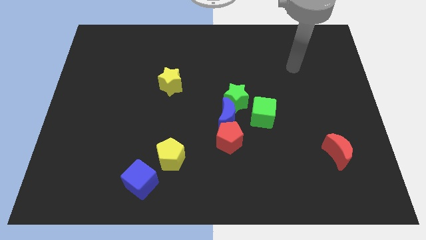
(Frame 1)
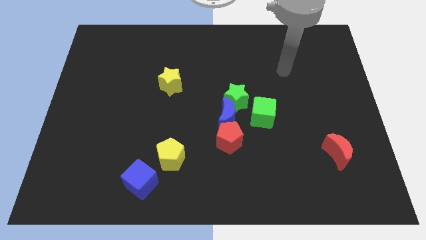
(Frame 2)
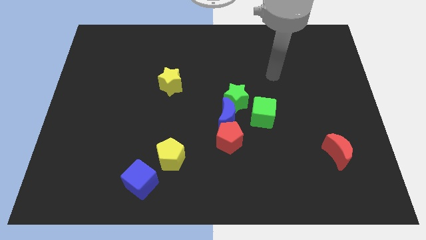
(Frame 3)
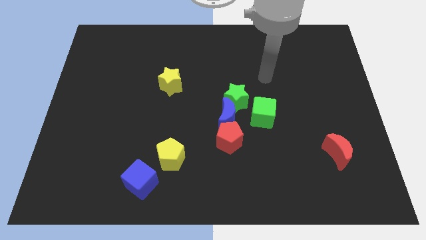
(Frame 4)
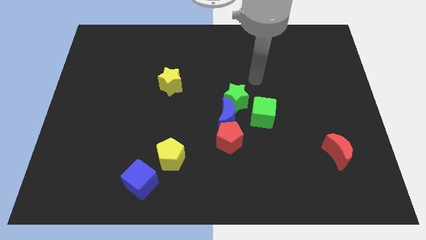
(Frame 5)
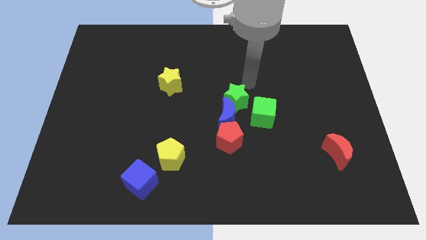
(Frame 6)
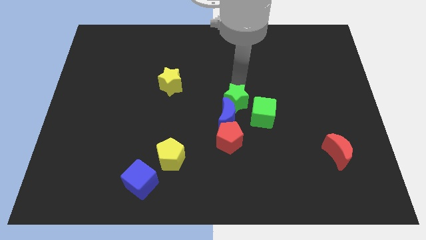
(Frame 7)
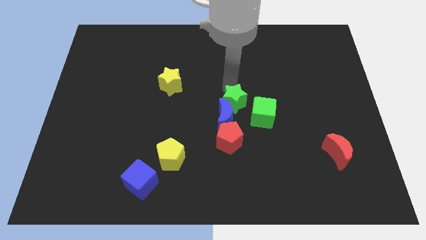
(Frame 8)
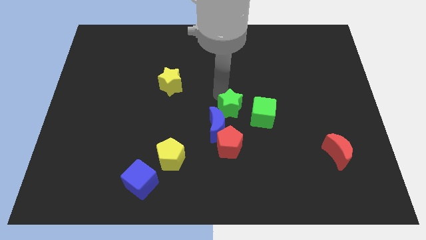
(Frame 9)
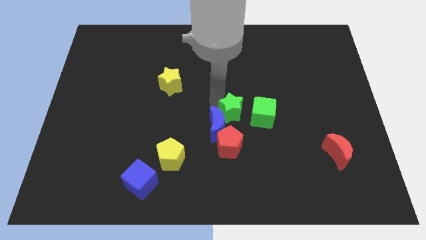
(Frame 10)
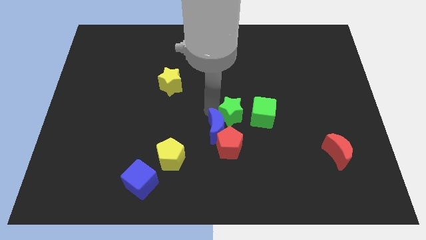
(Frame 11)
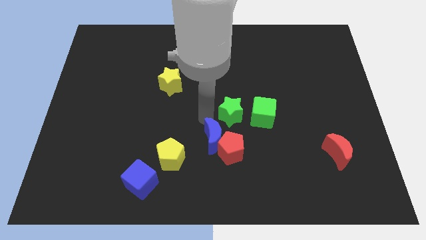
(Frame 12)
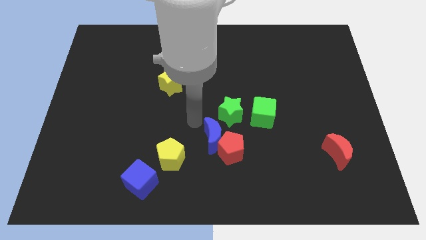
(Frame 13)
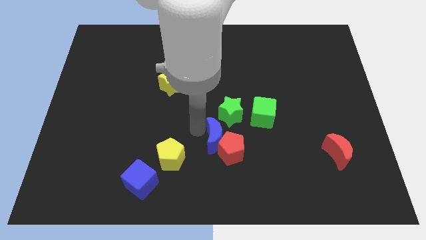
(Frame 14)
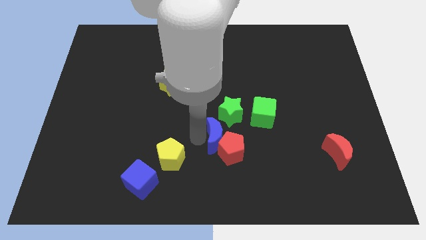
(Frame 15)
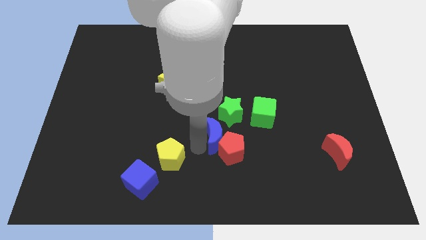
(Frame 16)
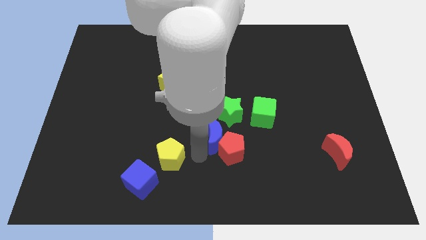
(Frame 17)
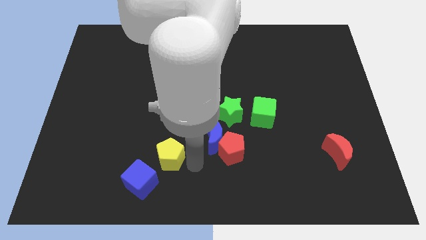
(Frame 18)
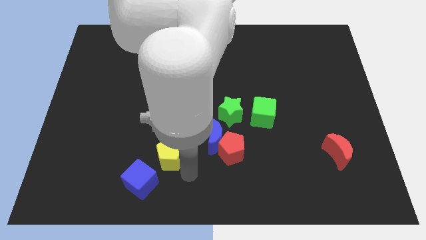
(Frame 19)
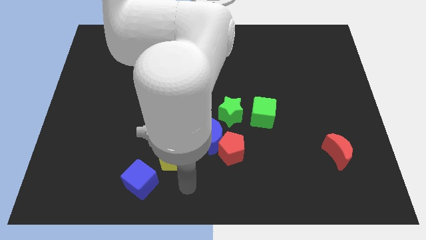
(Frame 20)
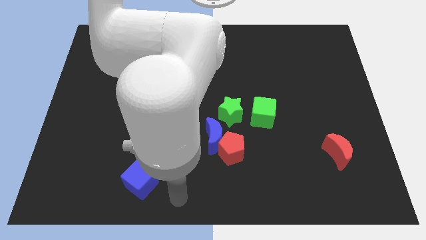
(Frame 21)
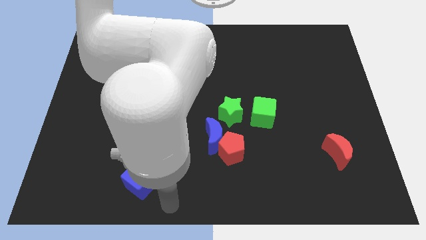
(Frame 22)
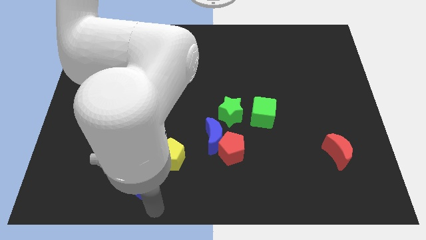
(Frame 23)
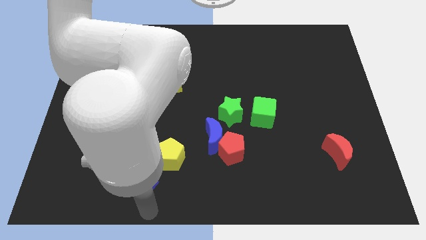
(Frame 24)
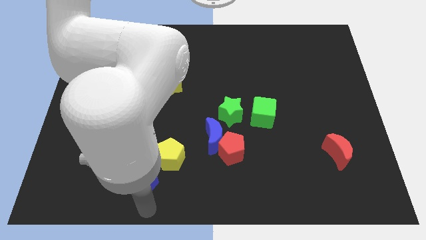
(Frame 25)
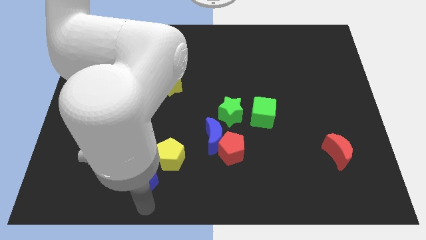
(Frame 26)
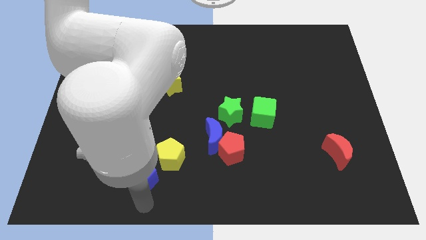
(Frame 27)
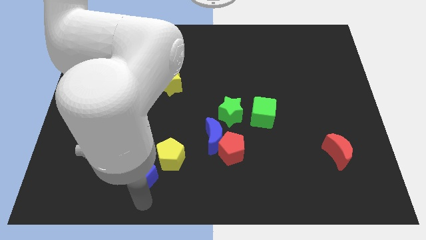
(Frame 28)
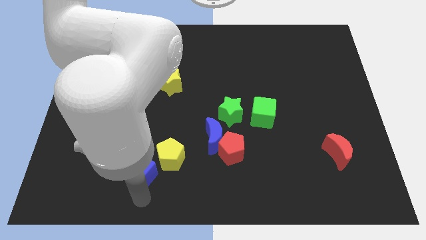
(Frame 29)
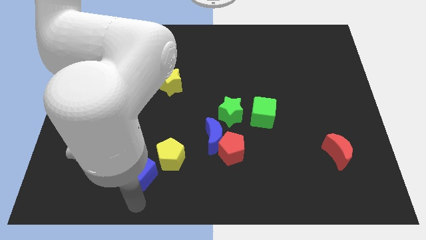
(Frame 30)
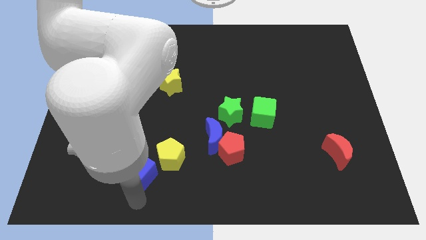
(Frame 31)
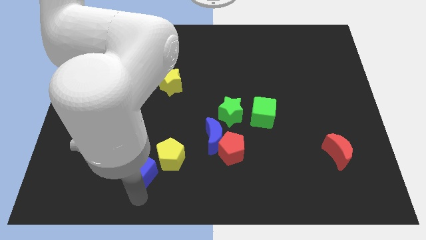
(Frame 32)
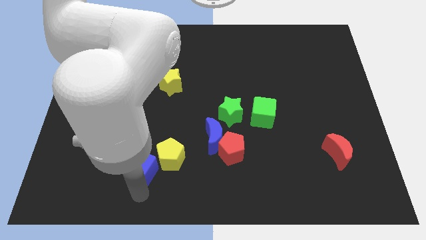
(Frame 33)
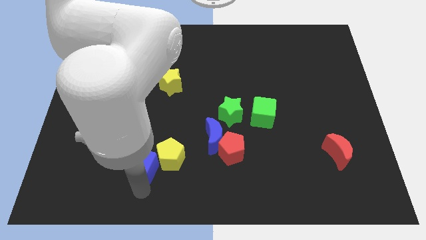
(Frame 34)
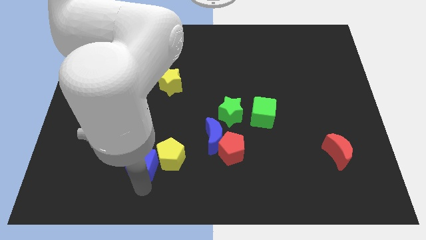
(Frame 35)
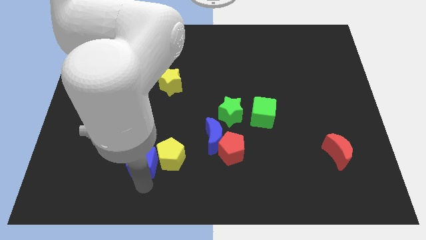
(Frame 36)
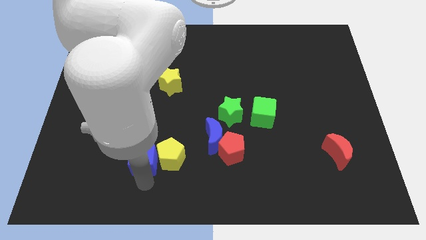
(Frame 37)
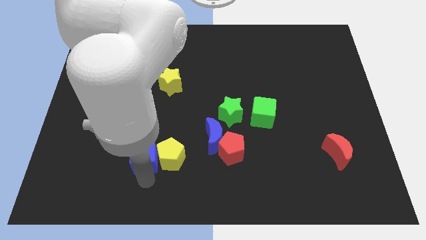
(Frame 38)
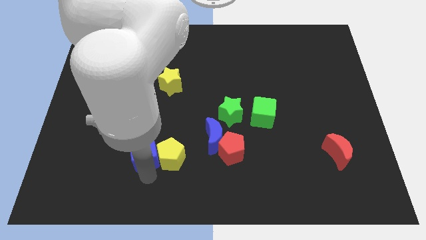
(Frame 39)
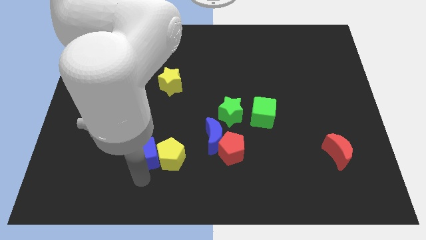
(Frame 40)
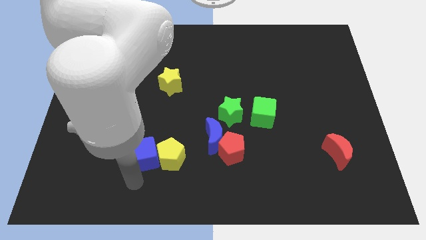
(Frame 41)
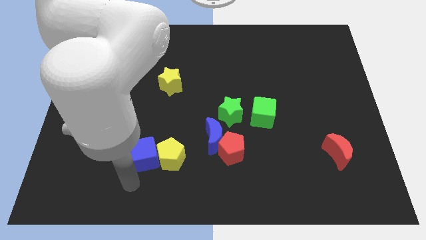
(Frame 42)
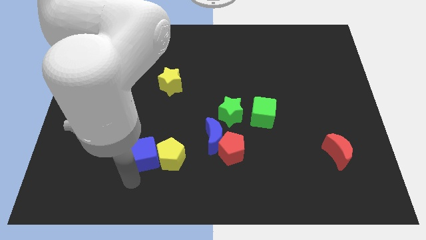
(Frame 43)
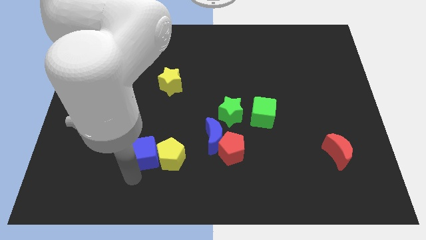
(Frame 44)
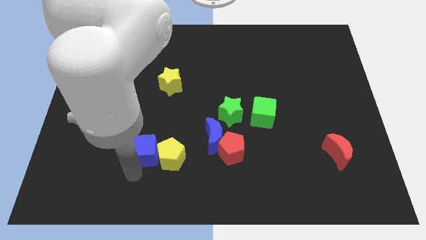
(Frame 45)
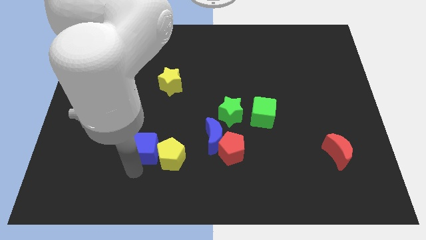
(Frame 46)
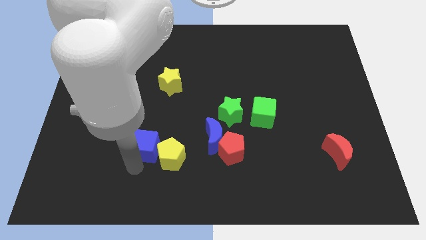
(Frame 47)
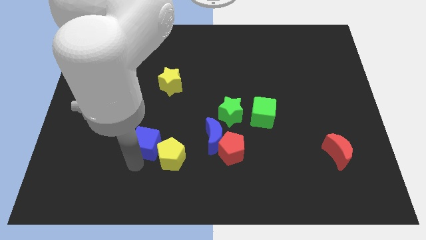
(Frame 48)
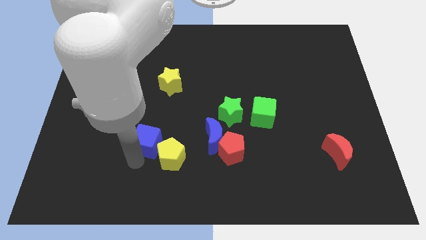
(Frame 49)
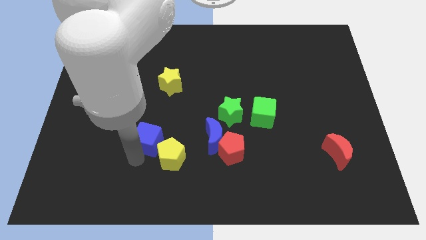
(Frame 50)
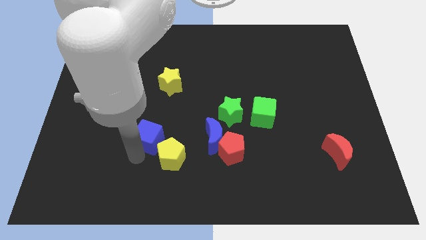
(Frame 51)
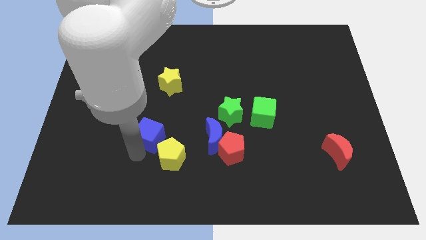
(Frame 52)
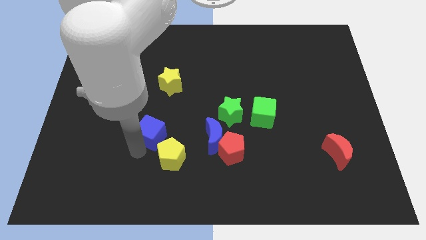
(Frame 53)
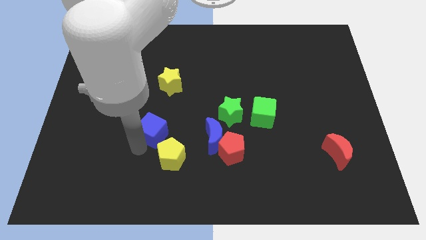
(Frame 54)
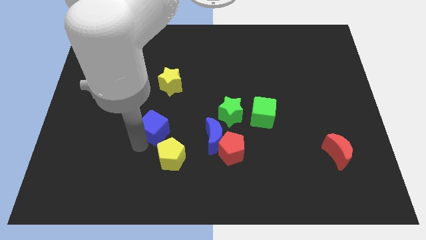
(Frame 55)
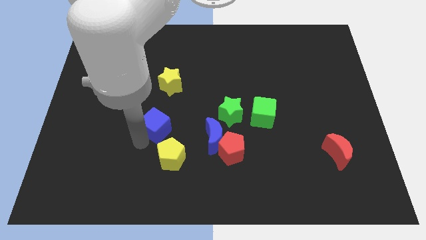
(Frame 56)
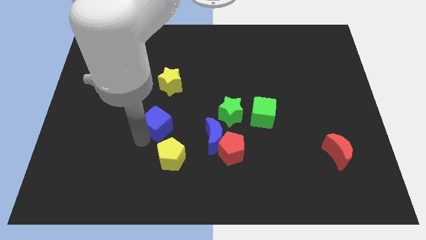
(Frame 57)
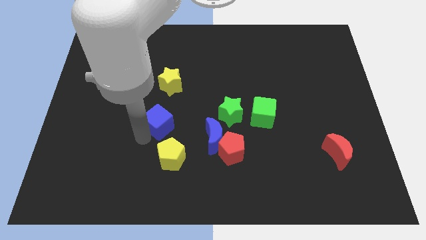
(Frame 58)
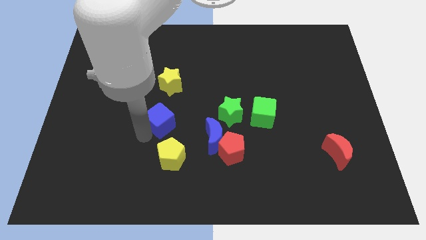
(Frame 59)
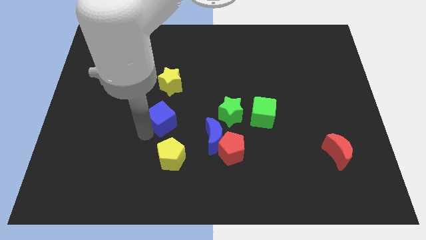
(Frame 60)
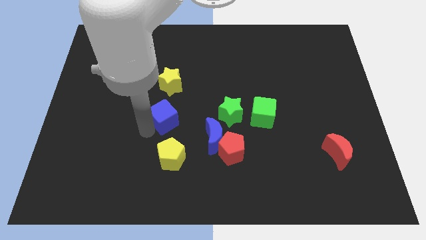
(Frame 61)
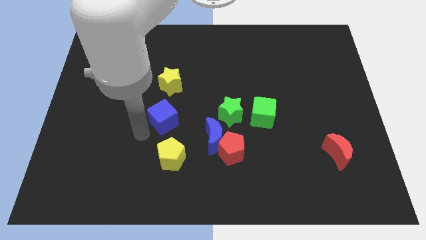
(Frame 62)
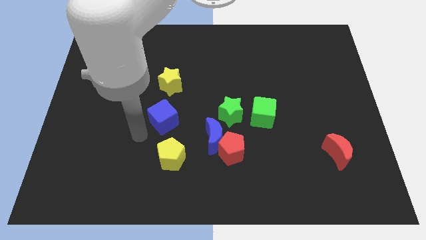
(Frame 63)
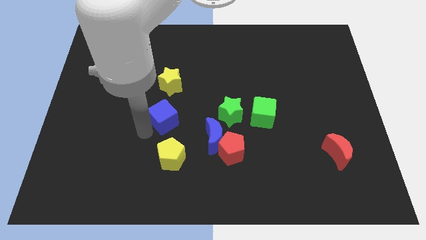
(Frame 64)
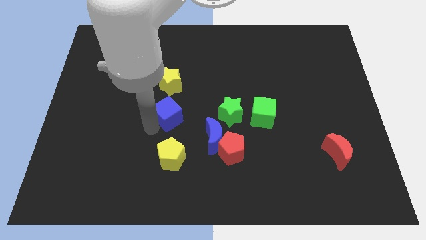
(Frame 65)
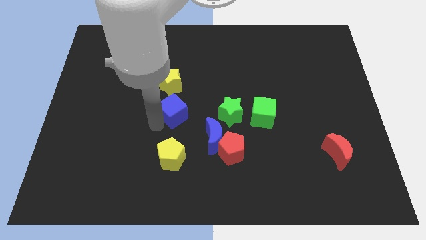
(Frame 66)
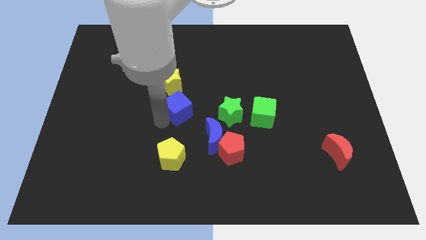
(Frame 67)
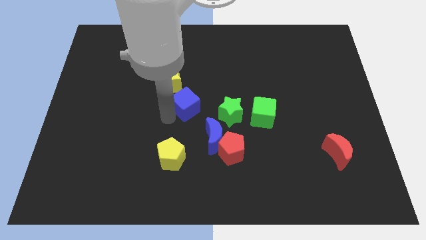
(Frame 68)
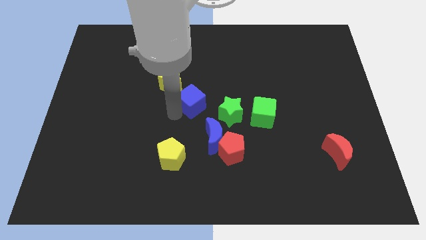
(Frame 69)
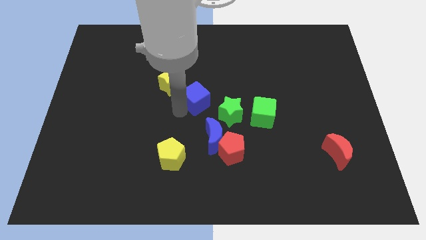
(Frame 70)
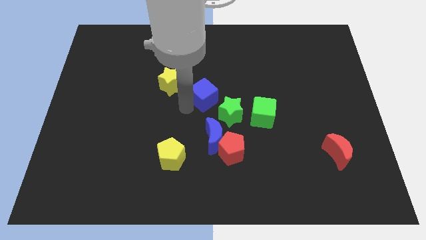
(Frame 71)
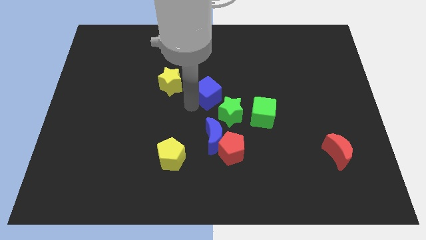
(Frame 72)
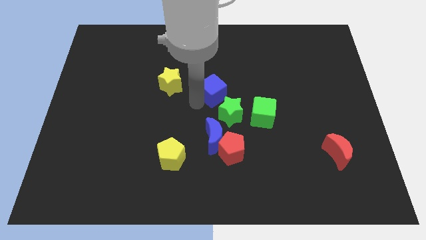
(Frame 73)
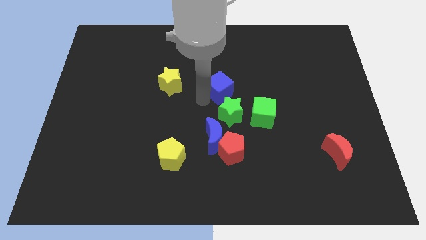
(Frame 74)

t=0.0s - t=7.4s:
push the blue cube to the top left side of the green cube

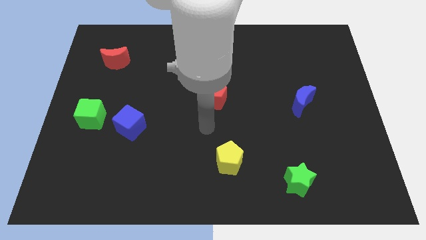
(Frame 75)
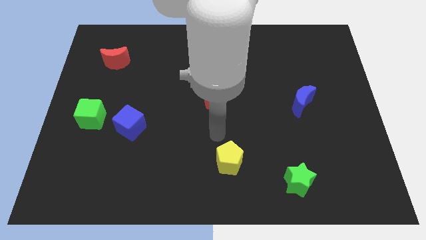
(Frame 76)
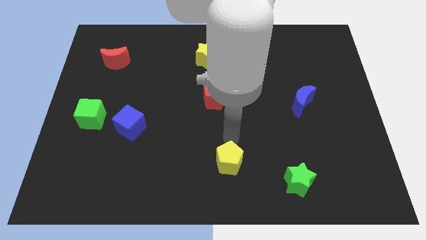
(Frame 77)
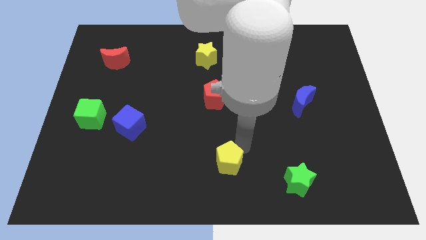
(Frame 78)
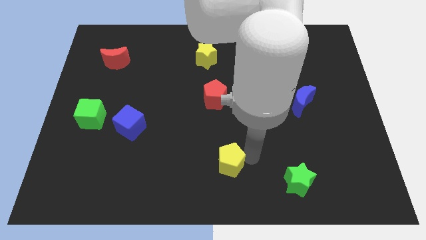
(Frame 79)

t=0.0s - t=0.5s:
slide the green star to the right side of the yellow pentagon
